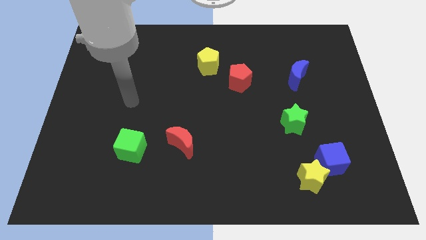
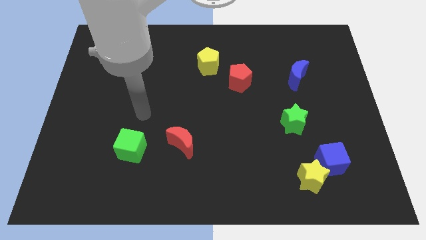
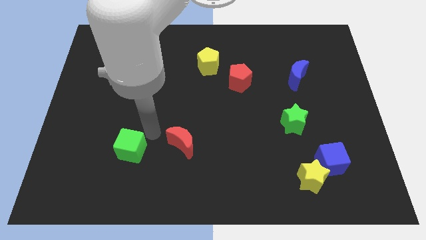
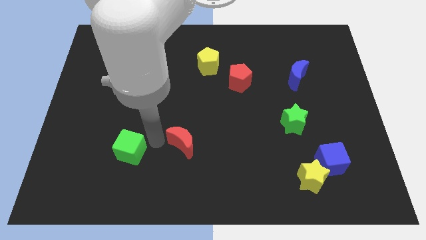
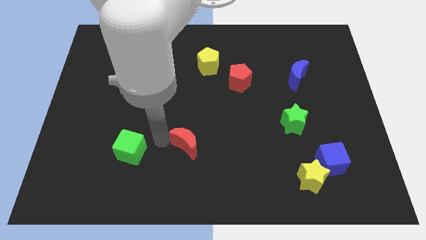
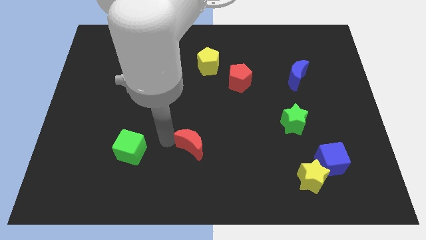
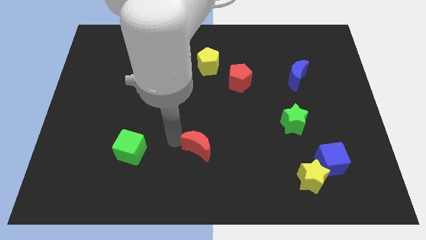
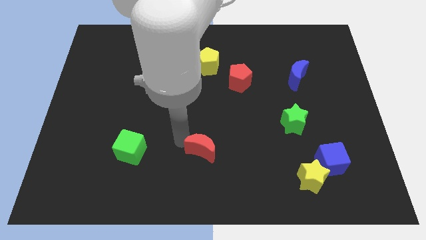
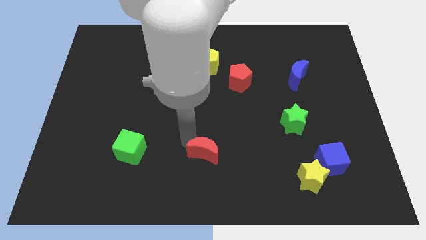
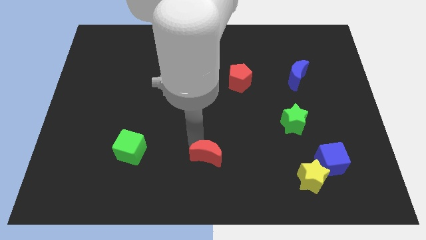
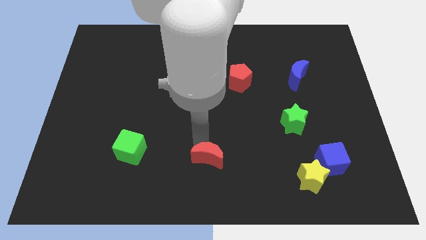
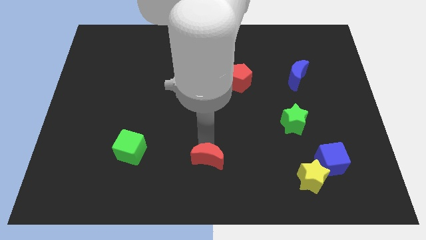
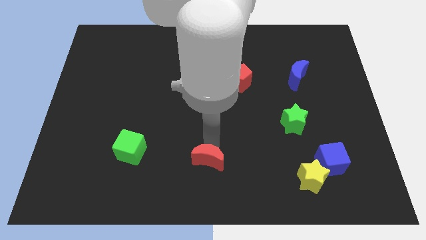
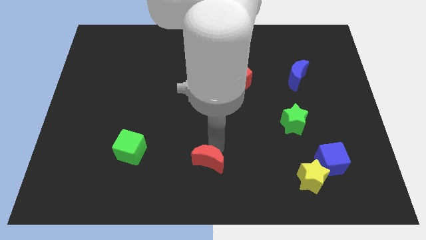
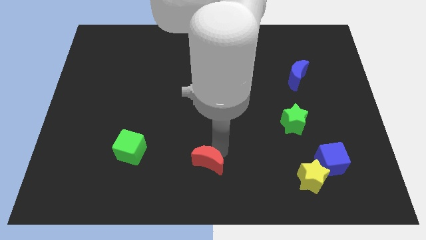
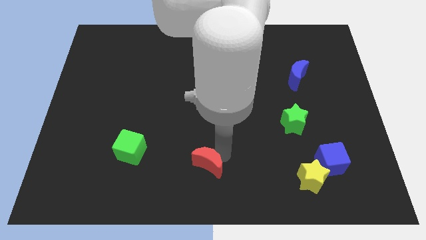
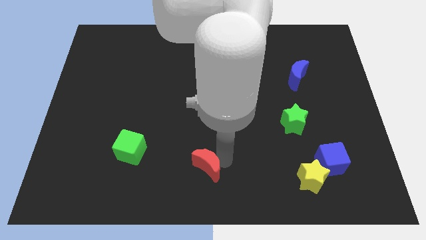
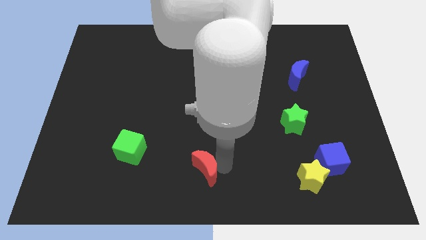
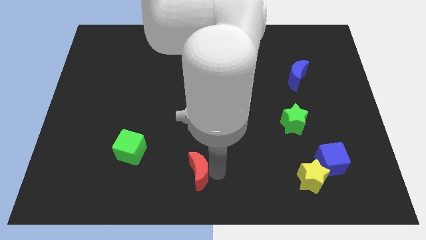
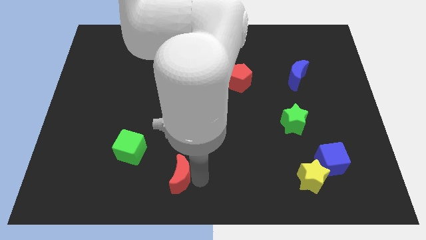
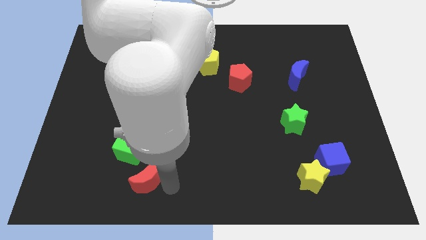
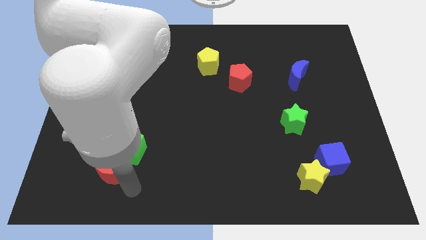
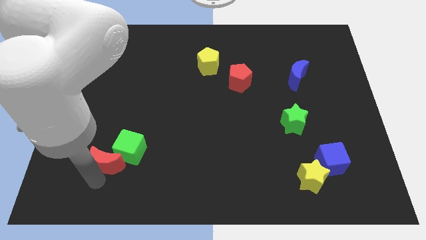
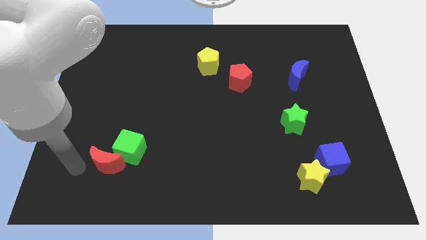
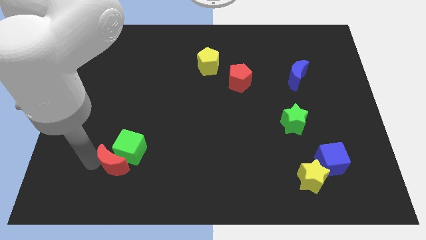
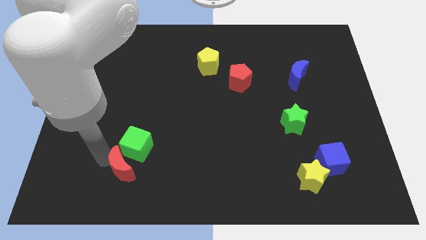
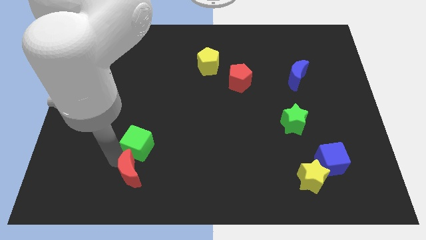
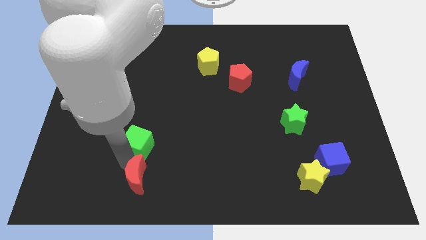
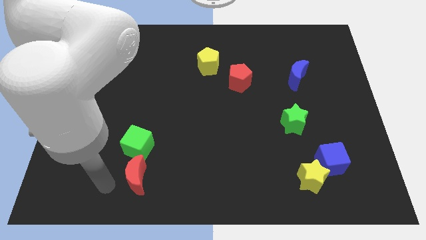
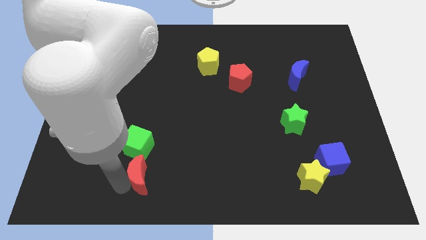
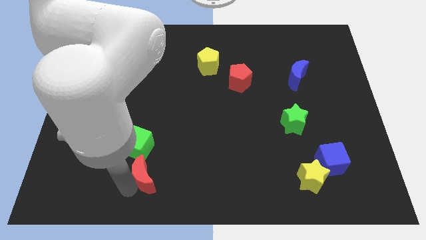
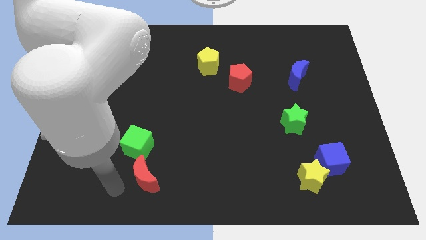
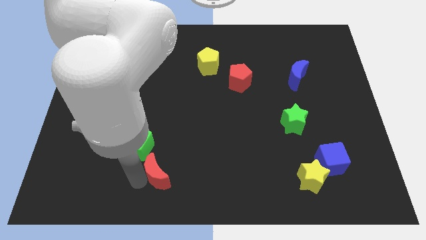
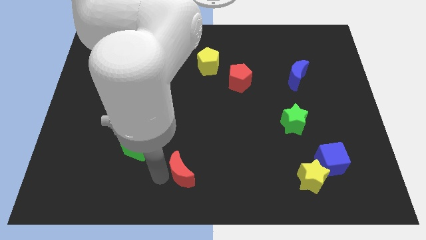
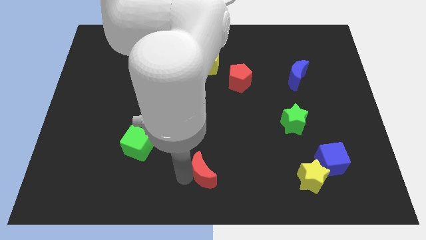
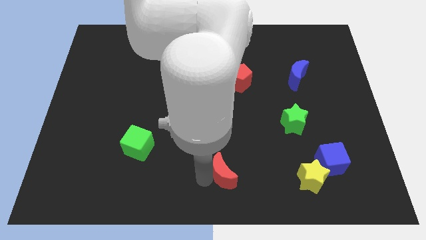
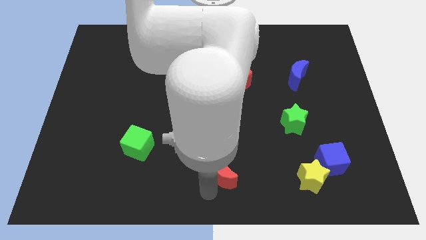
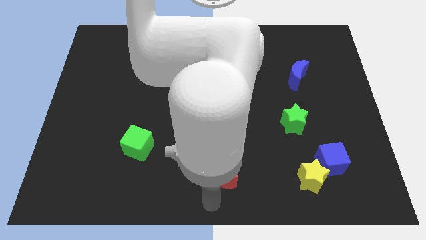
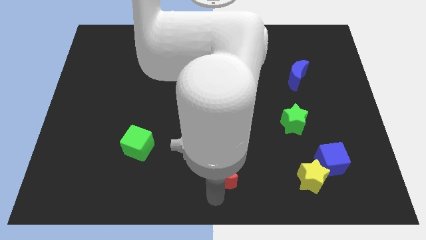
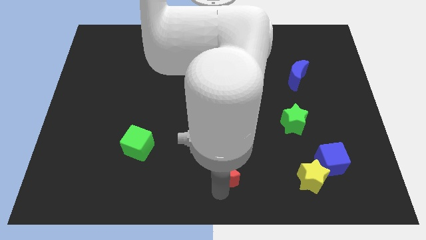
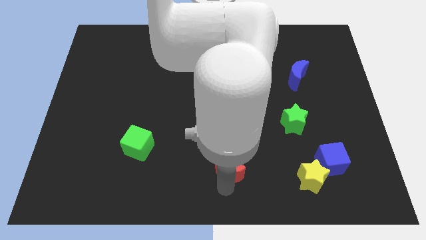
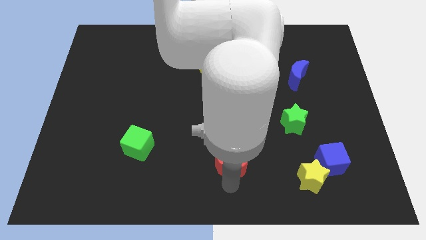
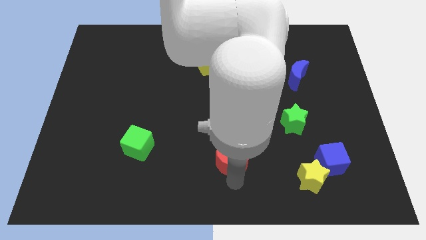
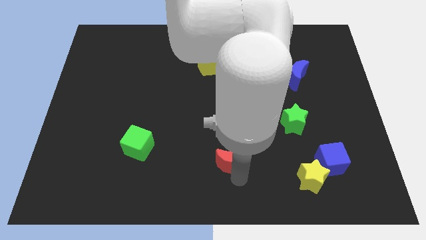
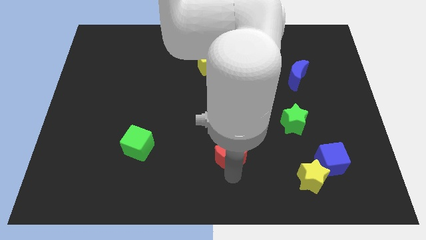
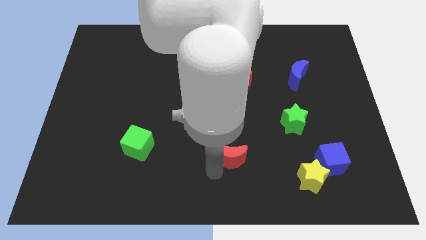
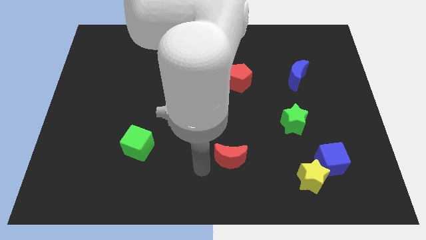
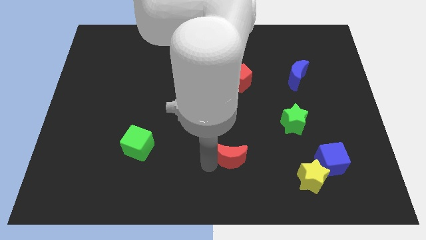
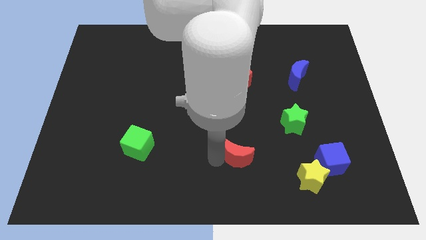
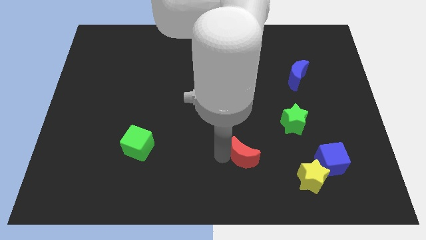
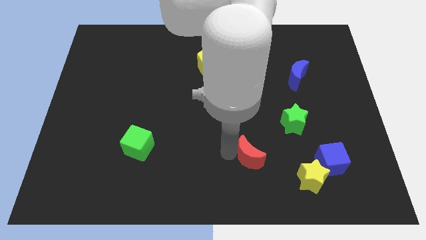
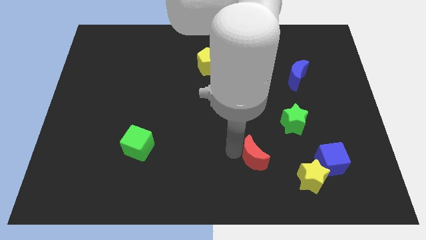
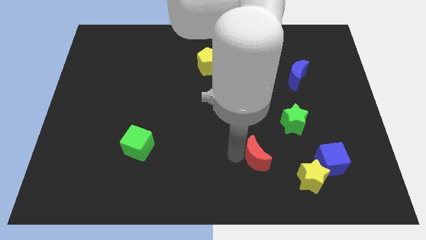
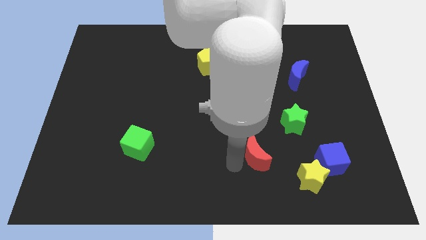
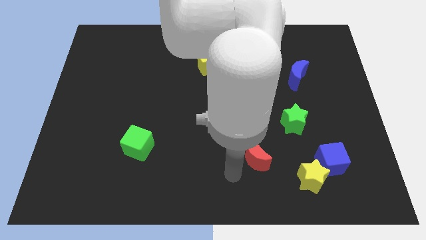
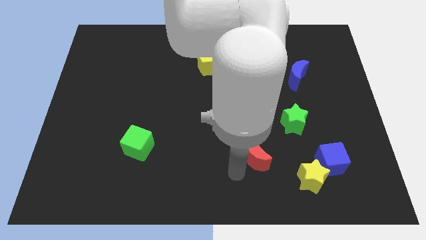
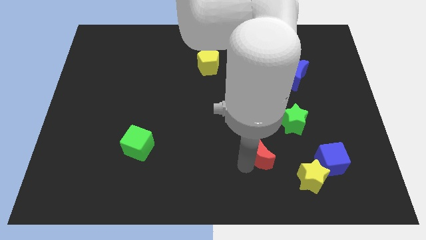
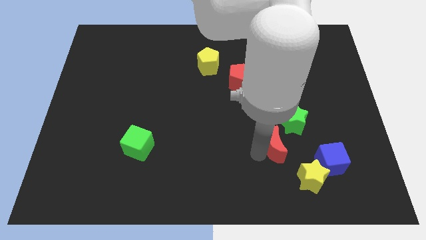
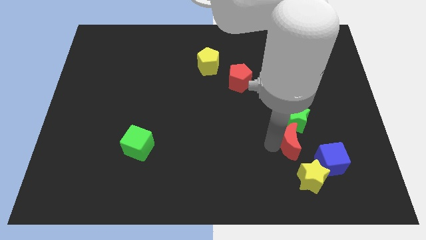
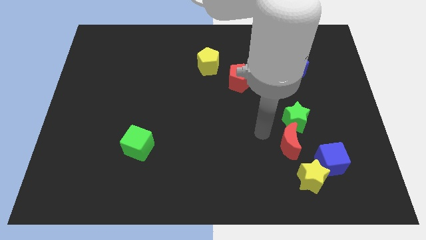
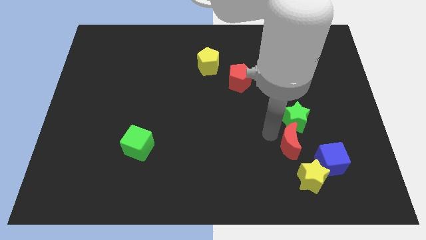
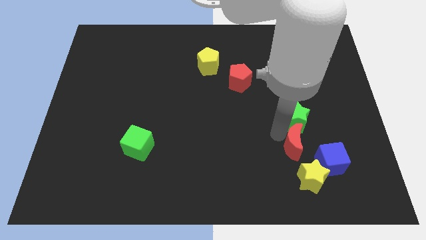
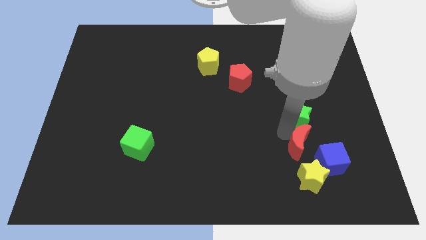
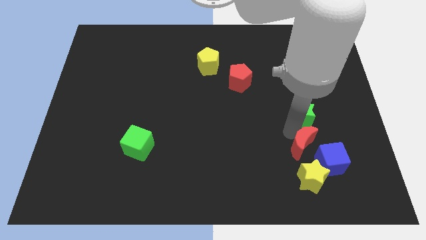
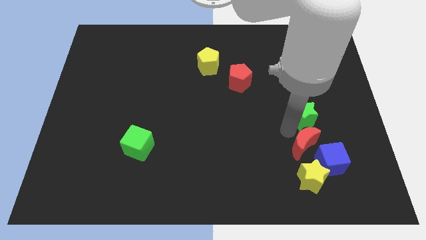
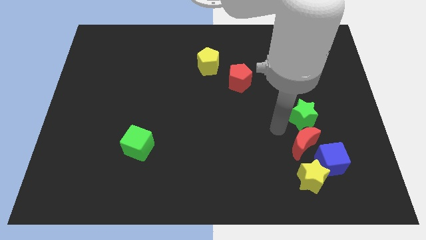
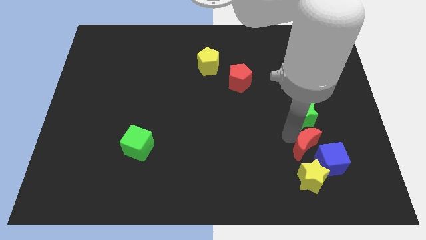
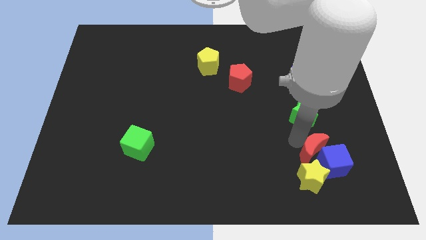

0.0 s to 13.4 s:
push the red moon close to the blue cube
